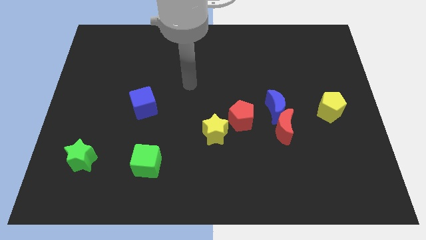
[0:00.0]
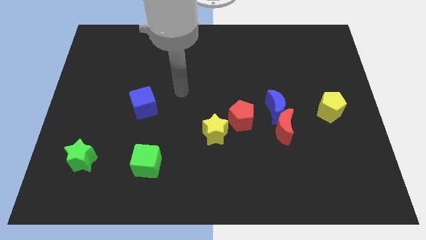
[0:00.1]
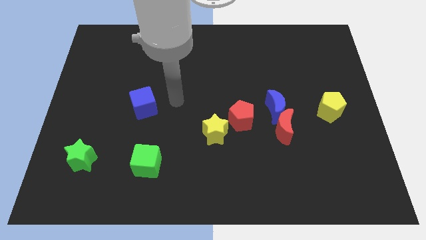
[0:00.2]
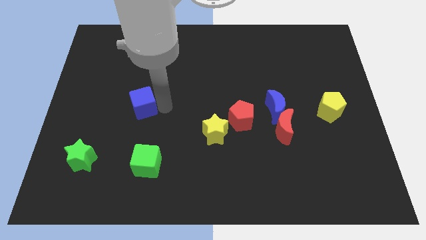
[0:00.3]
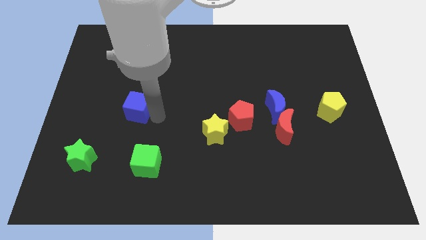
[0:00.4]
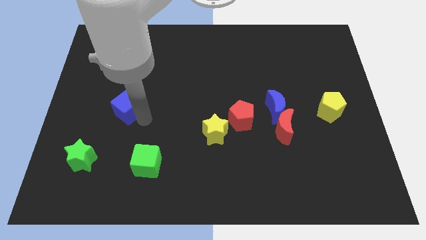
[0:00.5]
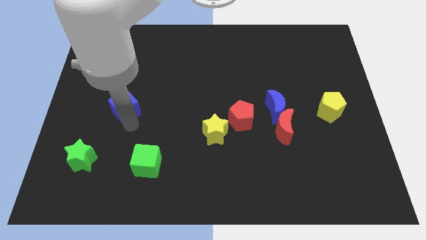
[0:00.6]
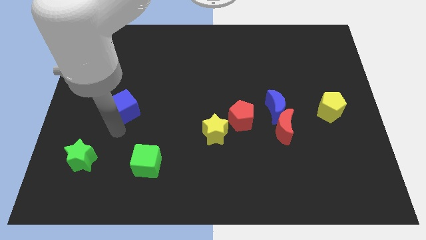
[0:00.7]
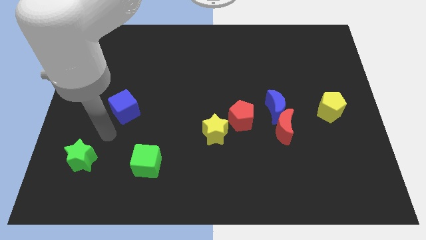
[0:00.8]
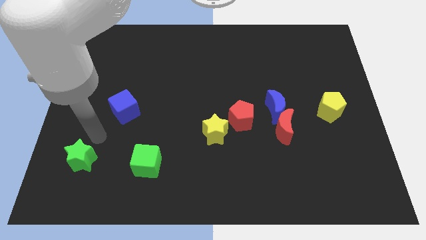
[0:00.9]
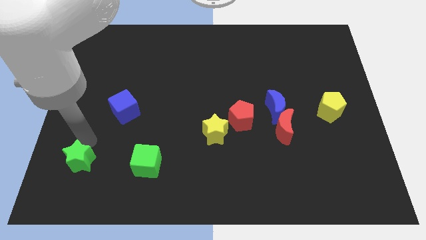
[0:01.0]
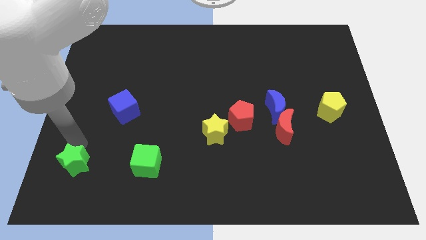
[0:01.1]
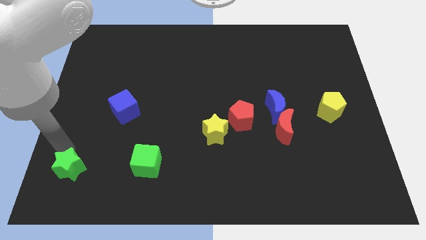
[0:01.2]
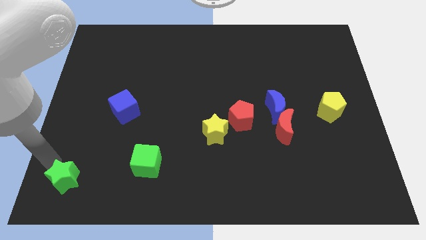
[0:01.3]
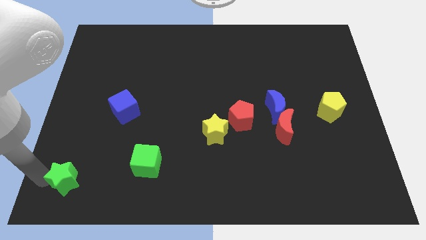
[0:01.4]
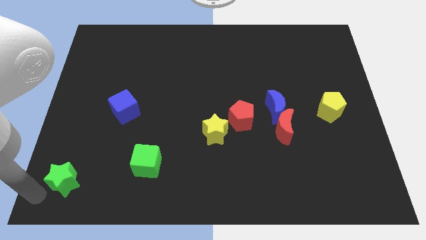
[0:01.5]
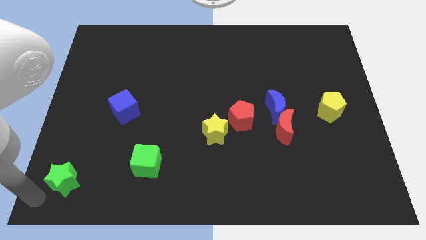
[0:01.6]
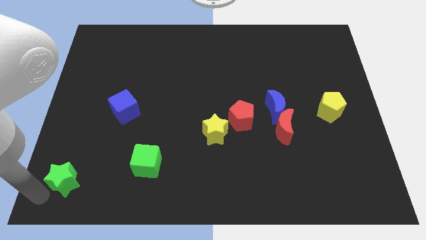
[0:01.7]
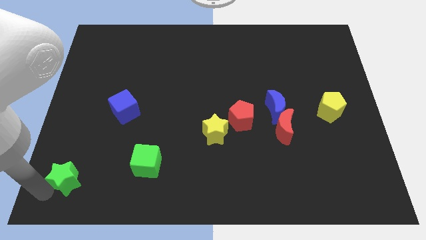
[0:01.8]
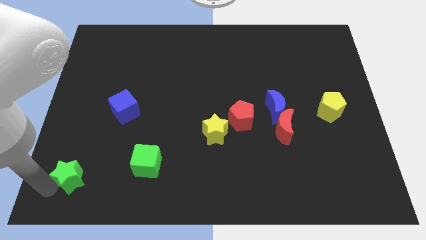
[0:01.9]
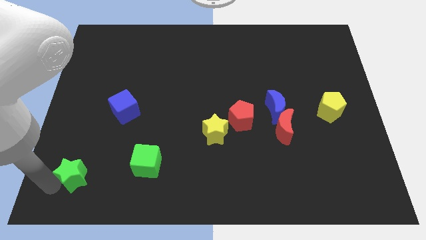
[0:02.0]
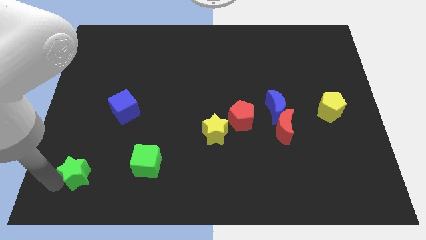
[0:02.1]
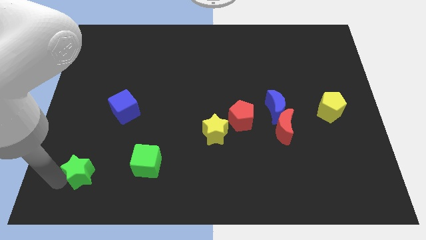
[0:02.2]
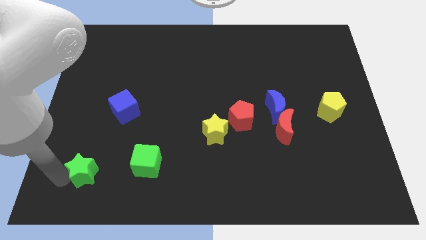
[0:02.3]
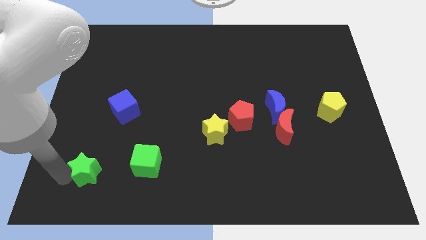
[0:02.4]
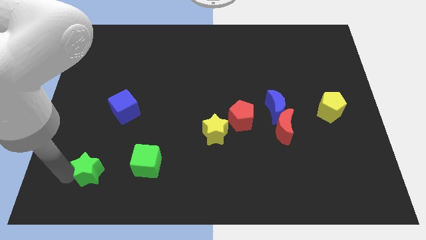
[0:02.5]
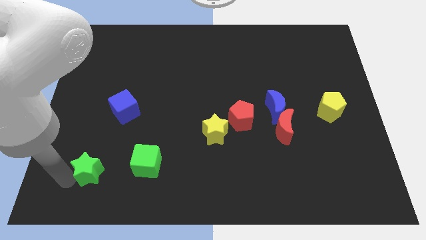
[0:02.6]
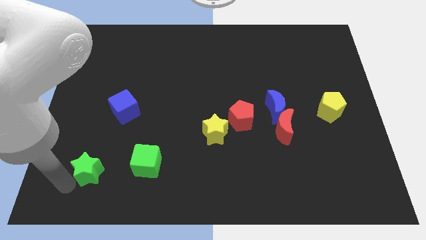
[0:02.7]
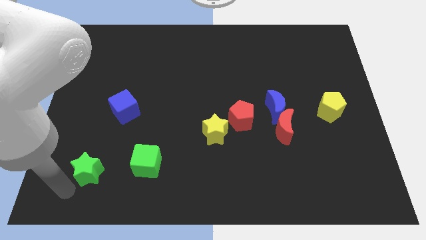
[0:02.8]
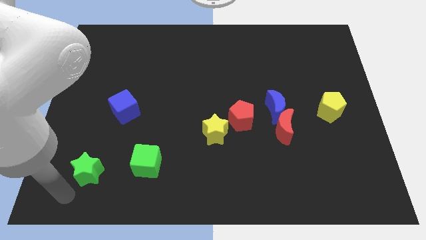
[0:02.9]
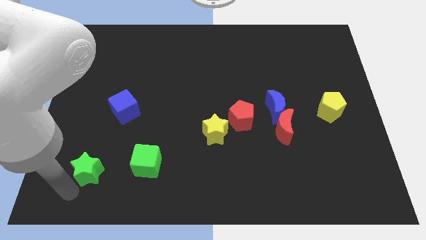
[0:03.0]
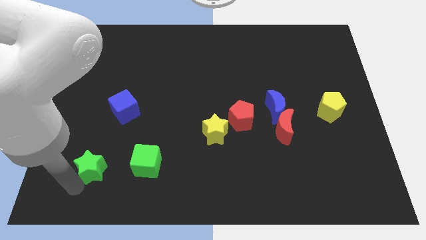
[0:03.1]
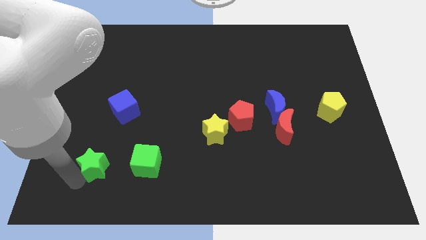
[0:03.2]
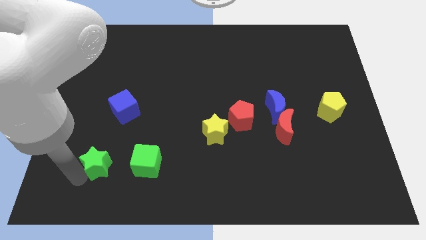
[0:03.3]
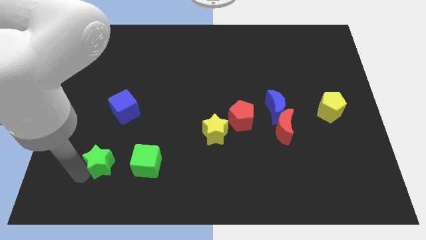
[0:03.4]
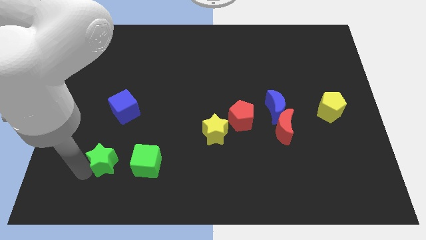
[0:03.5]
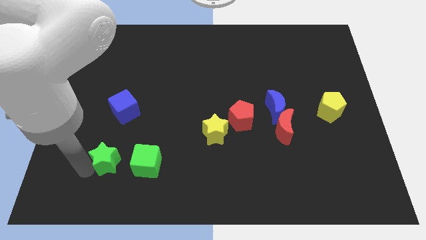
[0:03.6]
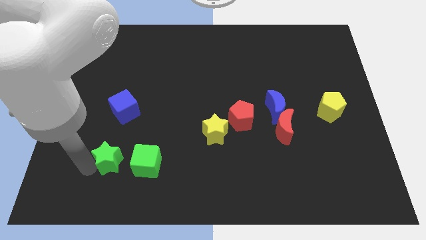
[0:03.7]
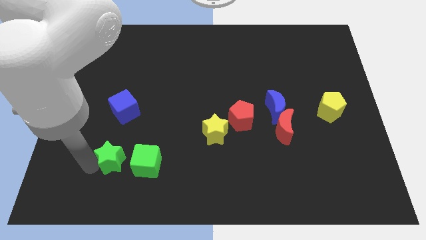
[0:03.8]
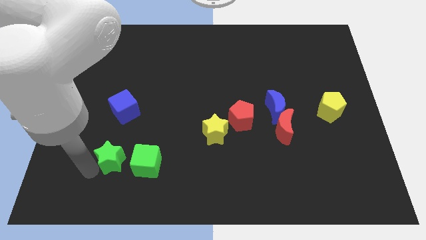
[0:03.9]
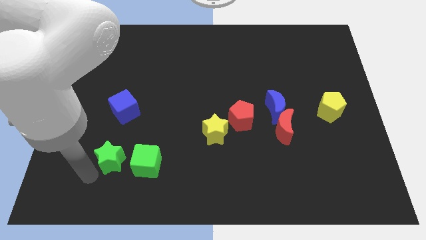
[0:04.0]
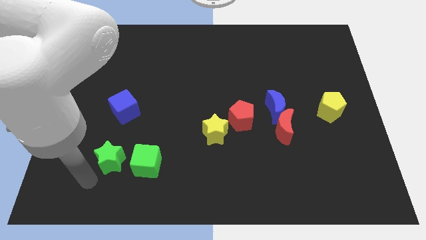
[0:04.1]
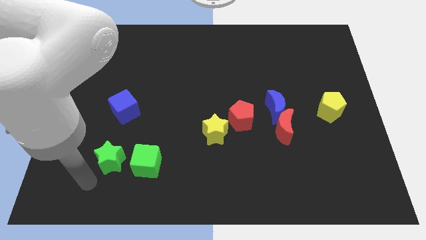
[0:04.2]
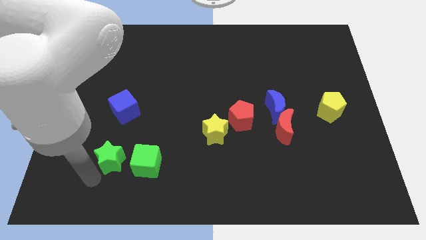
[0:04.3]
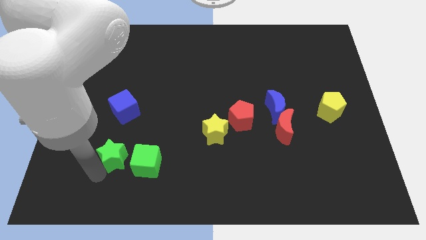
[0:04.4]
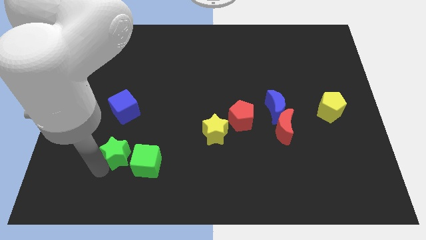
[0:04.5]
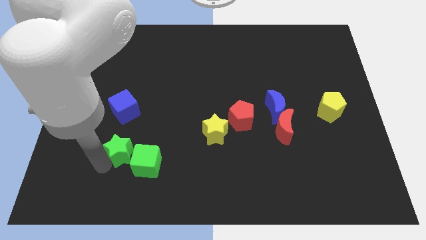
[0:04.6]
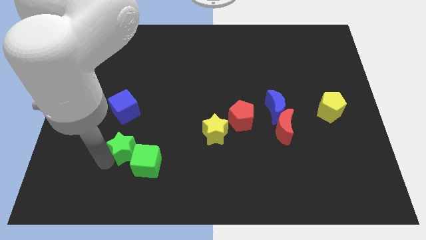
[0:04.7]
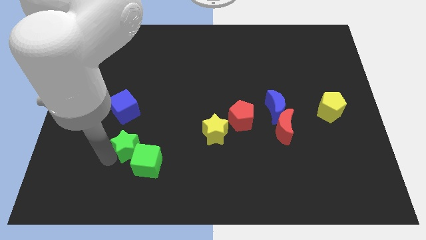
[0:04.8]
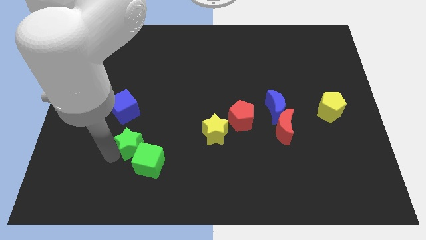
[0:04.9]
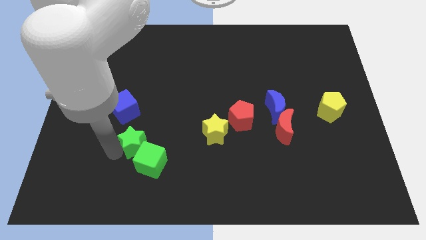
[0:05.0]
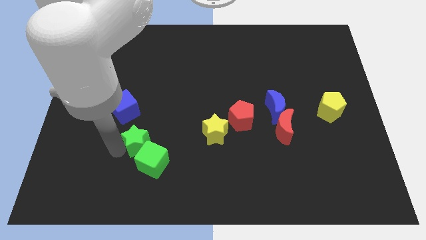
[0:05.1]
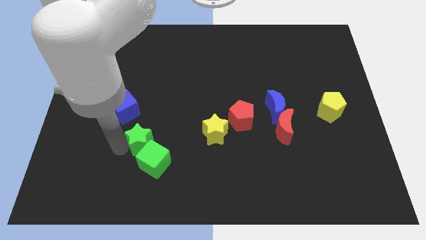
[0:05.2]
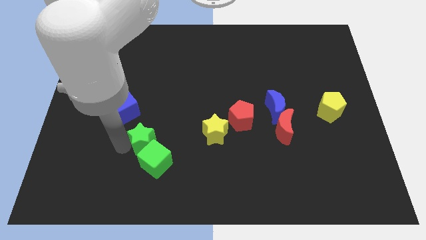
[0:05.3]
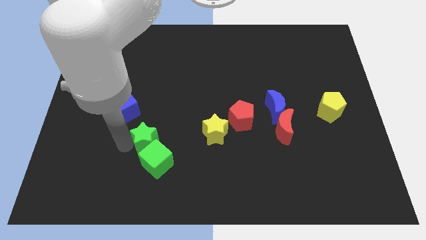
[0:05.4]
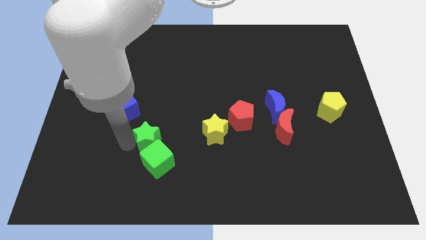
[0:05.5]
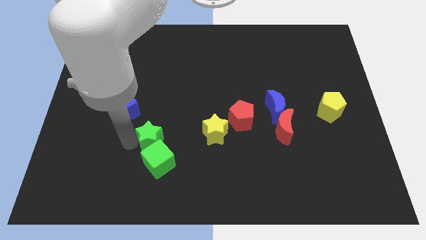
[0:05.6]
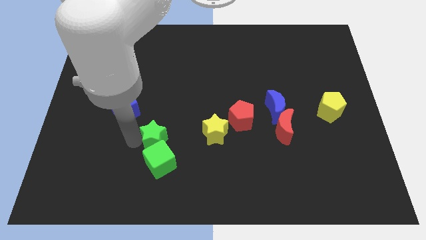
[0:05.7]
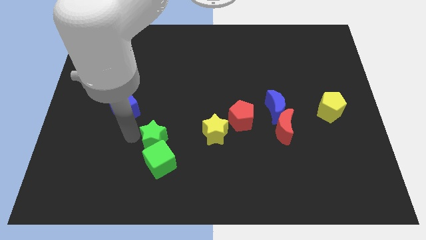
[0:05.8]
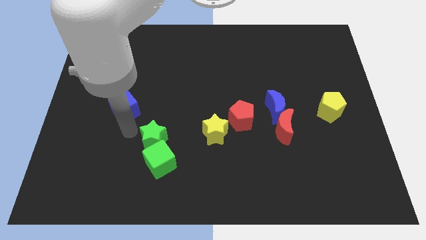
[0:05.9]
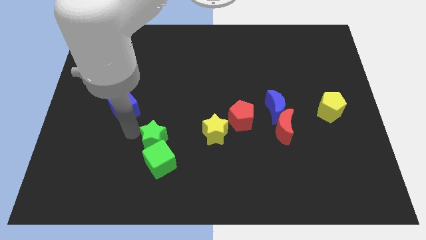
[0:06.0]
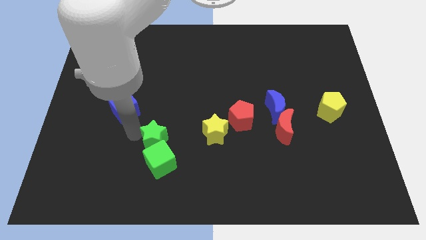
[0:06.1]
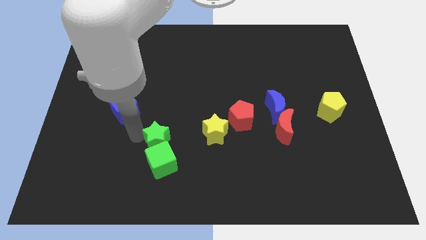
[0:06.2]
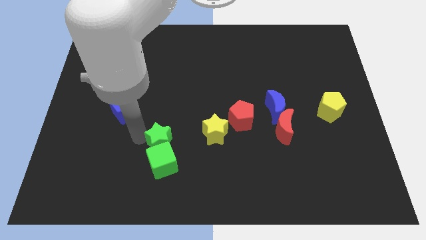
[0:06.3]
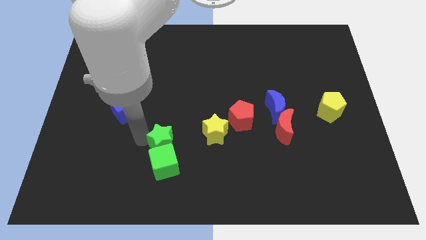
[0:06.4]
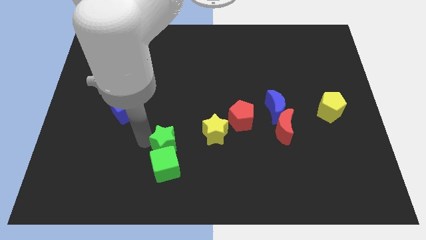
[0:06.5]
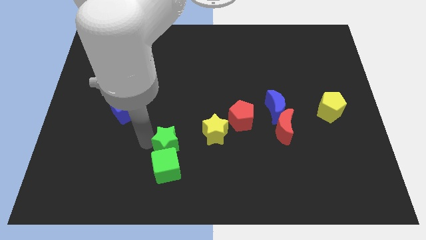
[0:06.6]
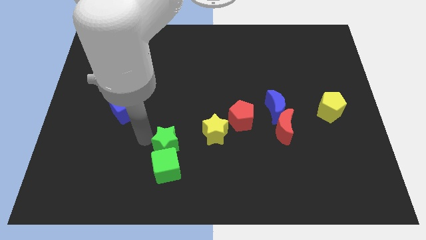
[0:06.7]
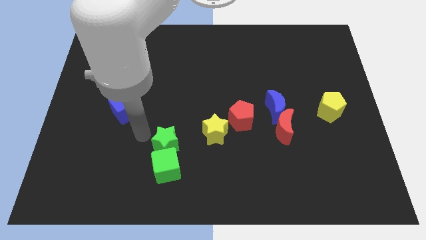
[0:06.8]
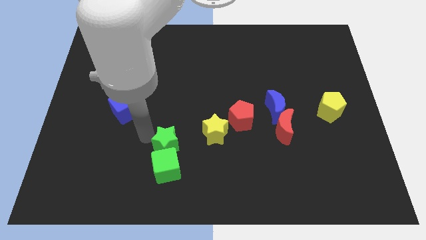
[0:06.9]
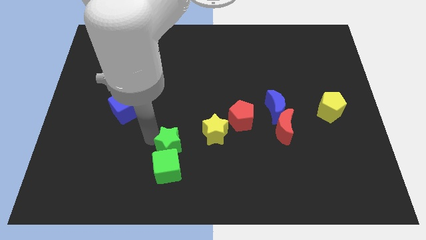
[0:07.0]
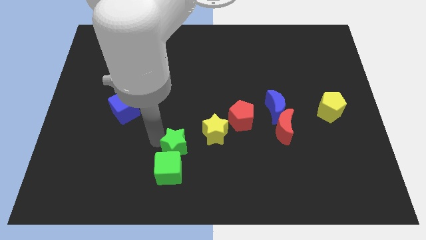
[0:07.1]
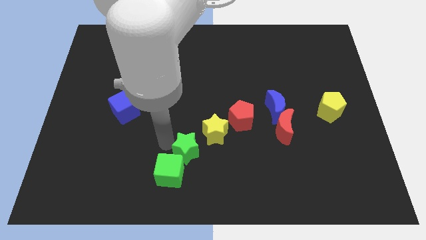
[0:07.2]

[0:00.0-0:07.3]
push the green star right

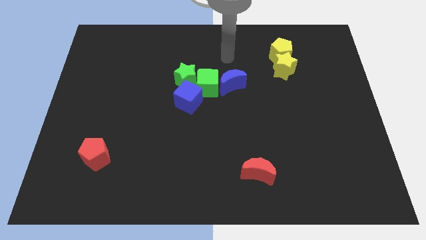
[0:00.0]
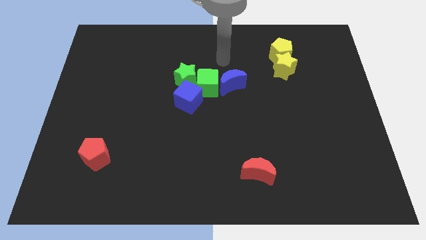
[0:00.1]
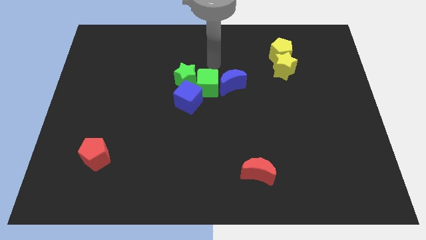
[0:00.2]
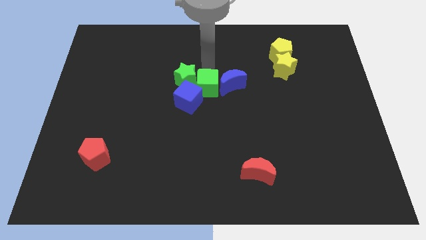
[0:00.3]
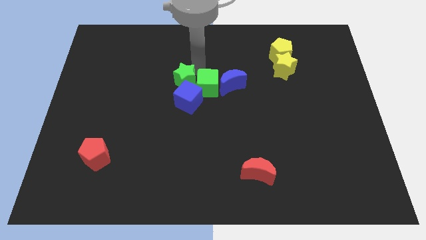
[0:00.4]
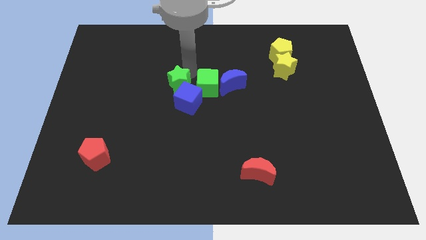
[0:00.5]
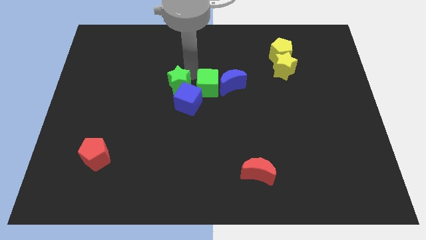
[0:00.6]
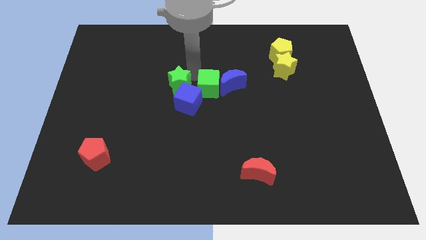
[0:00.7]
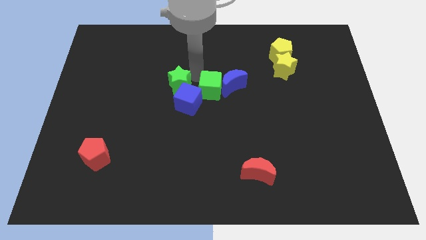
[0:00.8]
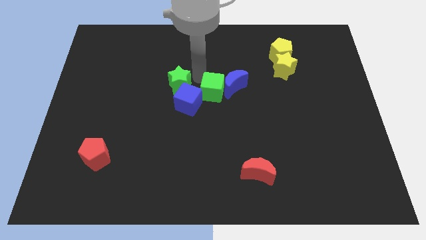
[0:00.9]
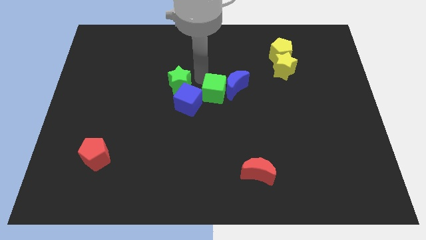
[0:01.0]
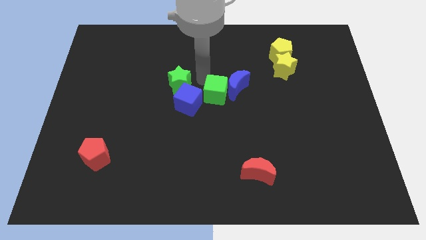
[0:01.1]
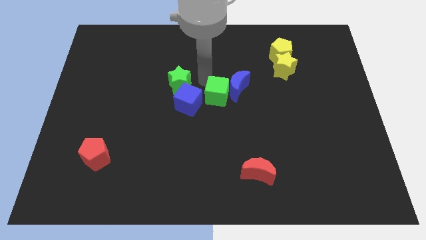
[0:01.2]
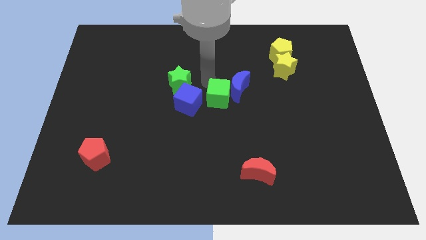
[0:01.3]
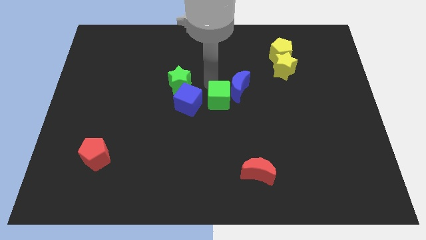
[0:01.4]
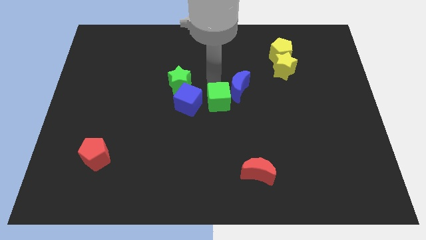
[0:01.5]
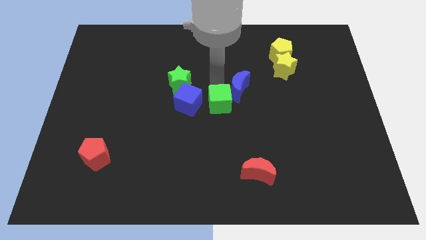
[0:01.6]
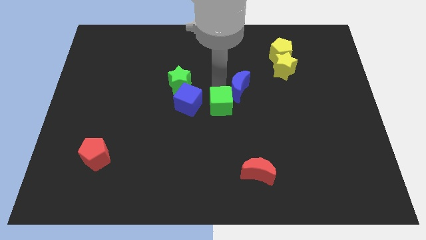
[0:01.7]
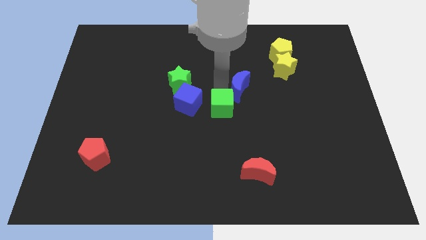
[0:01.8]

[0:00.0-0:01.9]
slightly slide the green cube down and then to the right
